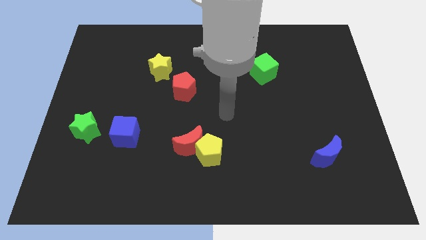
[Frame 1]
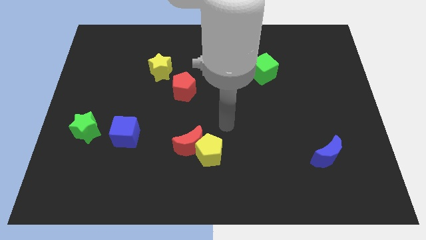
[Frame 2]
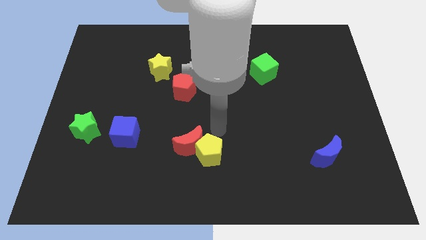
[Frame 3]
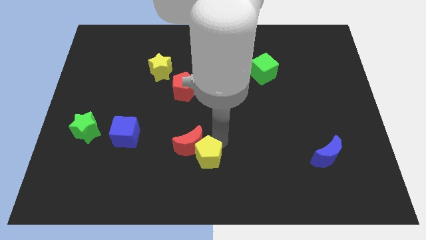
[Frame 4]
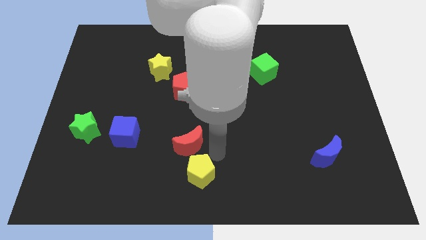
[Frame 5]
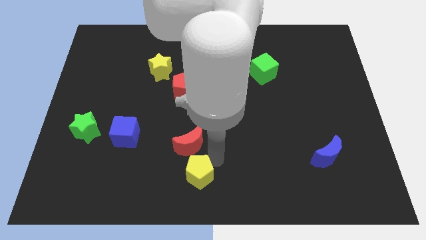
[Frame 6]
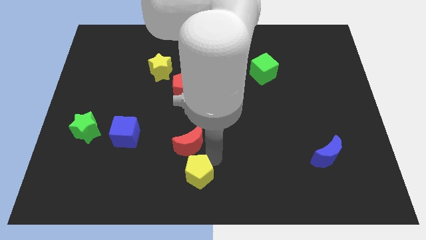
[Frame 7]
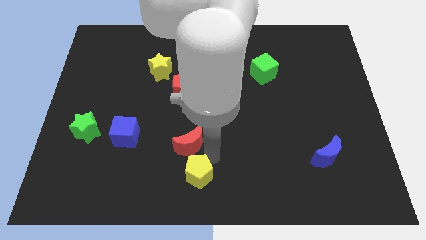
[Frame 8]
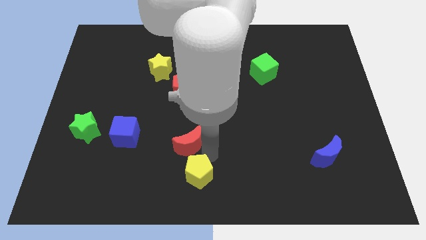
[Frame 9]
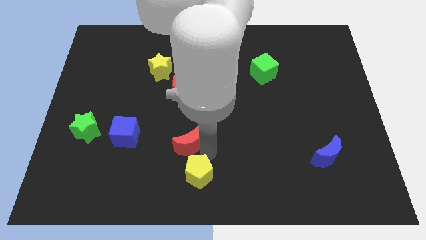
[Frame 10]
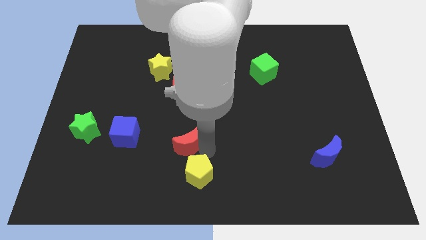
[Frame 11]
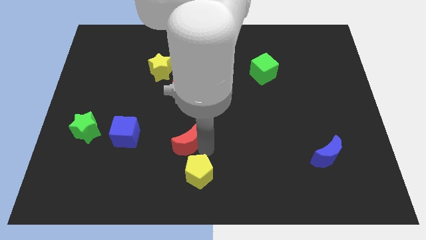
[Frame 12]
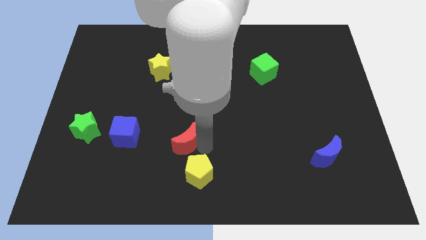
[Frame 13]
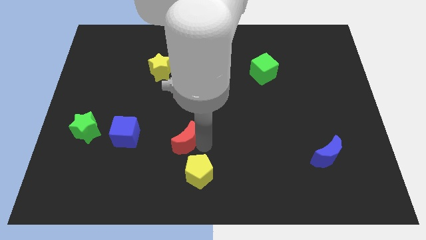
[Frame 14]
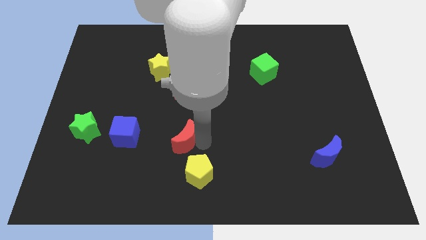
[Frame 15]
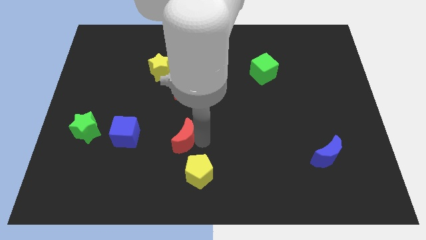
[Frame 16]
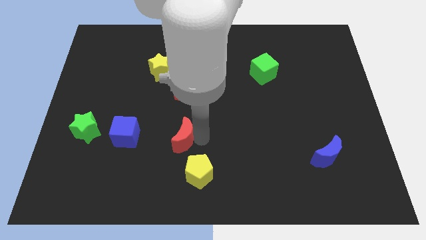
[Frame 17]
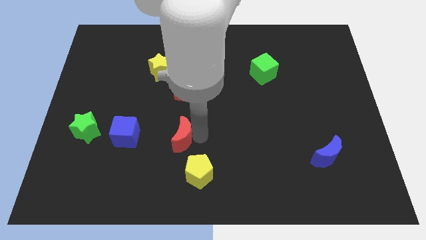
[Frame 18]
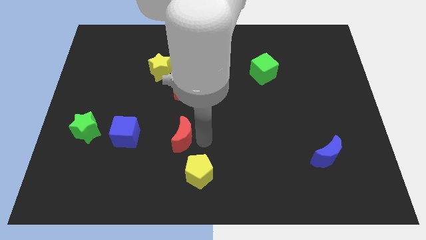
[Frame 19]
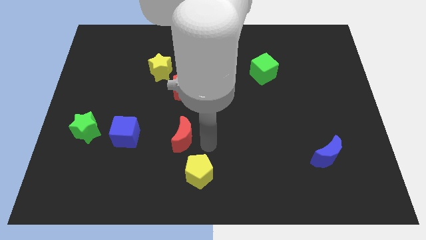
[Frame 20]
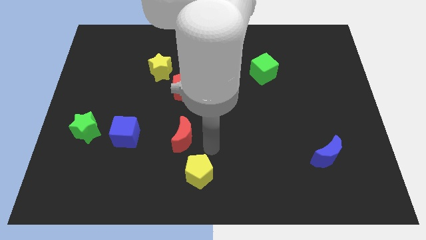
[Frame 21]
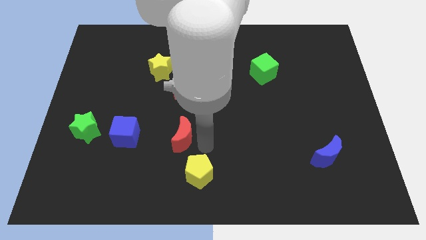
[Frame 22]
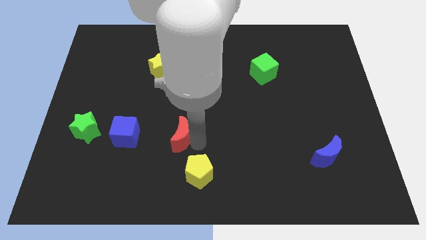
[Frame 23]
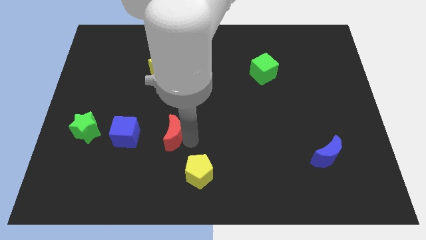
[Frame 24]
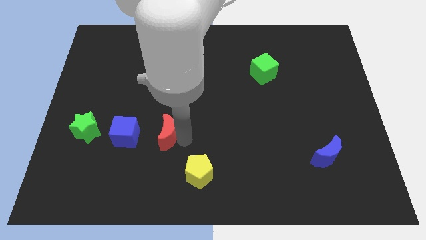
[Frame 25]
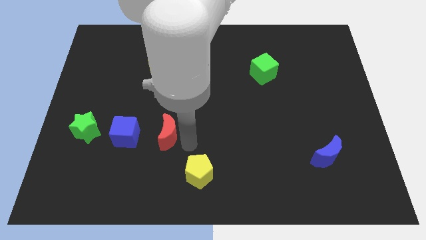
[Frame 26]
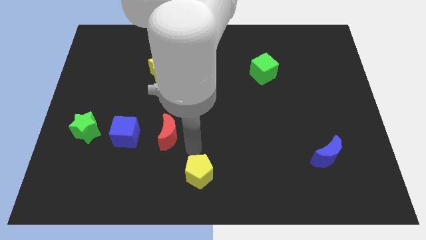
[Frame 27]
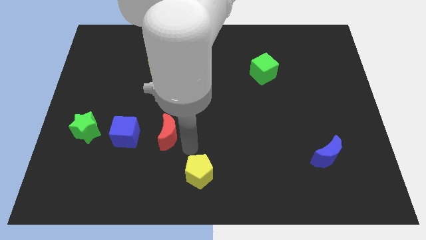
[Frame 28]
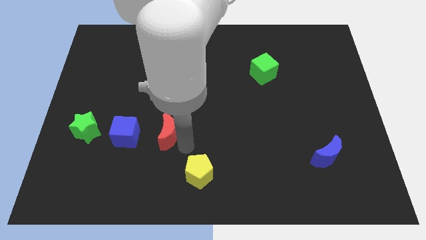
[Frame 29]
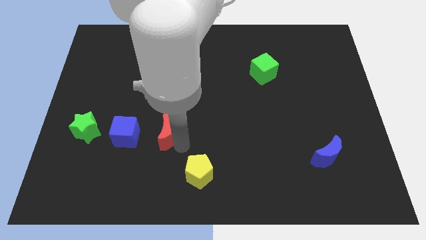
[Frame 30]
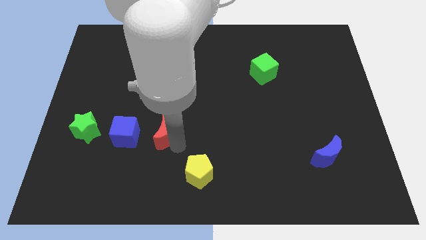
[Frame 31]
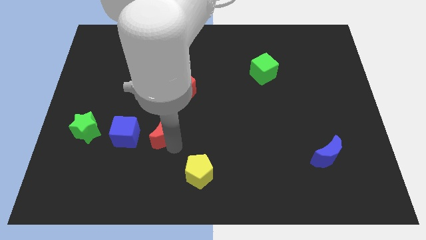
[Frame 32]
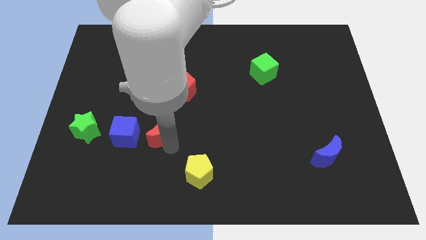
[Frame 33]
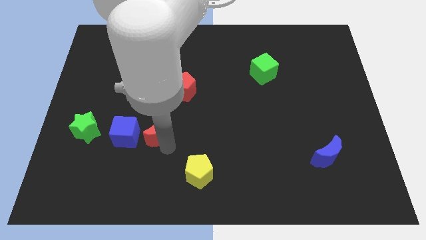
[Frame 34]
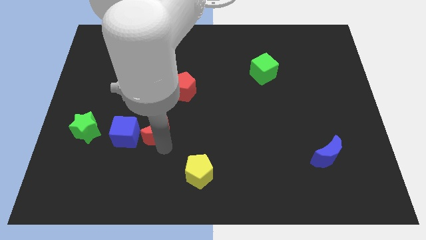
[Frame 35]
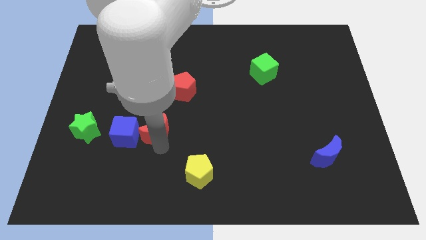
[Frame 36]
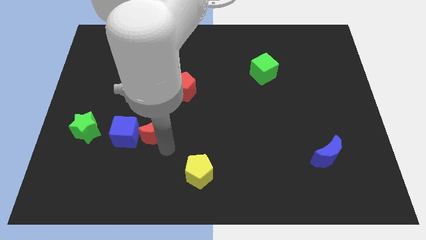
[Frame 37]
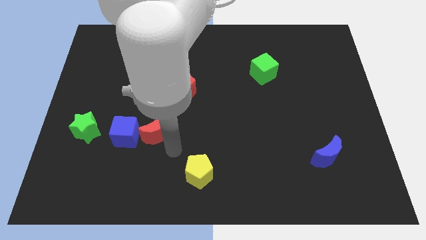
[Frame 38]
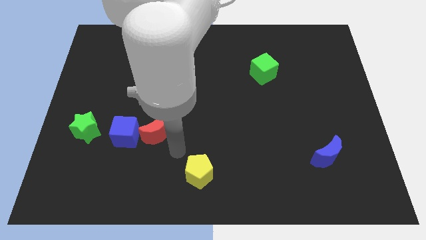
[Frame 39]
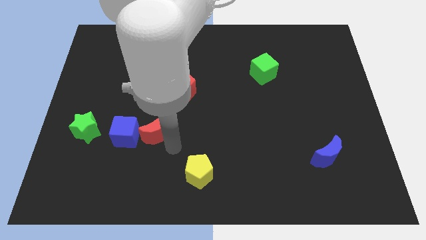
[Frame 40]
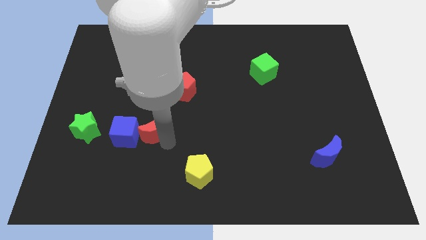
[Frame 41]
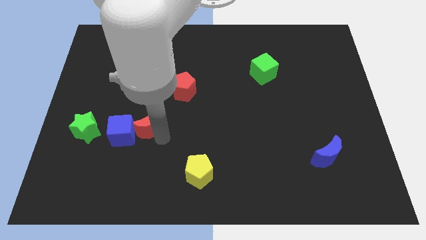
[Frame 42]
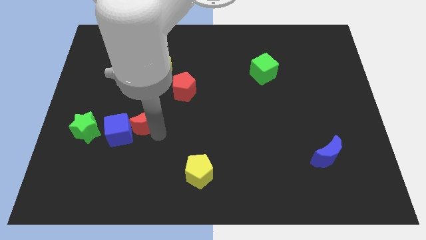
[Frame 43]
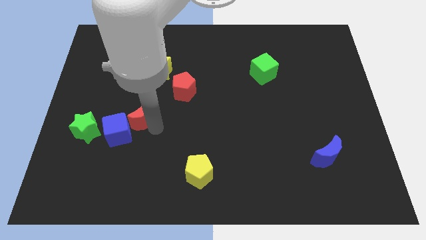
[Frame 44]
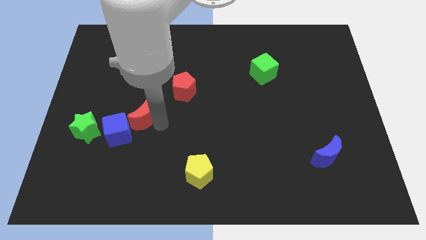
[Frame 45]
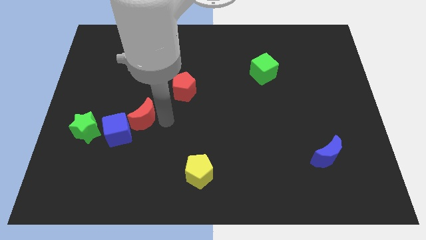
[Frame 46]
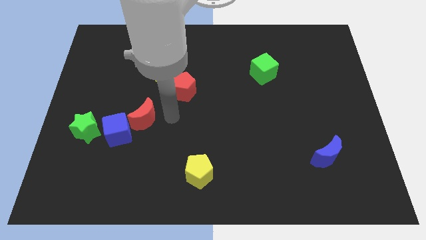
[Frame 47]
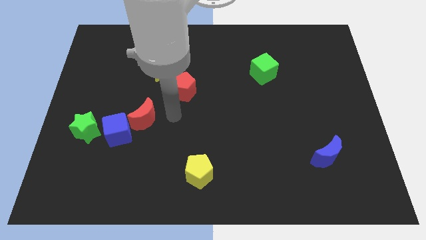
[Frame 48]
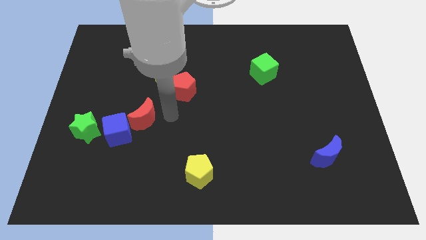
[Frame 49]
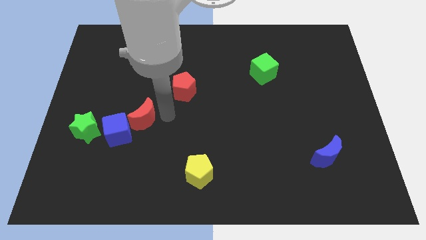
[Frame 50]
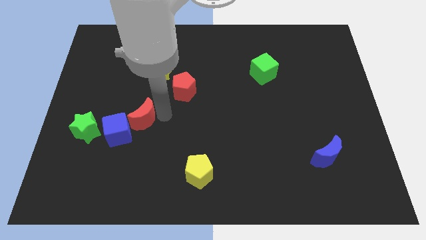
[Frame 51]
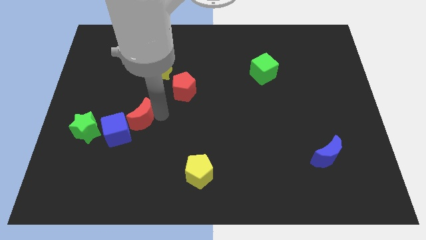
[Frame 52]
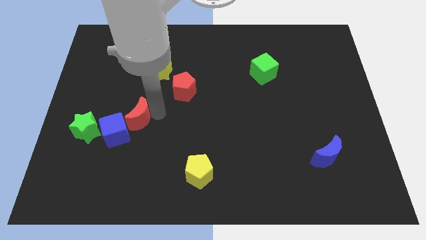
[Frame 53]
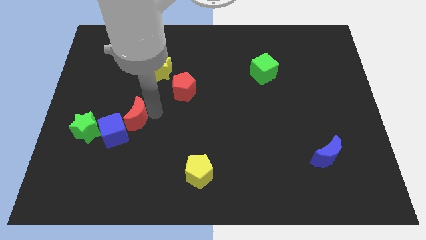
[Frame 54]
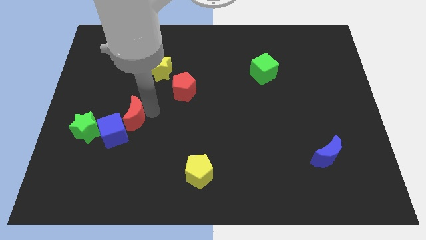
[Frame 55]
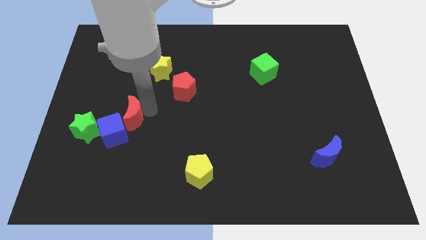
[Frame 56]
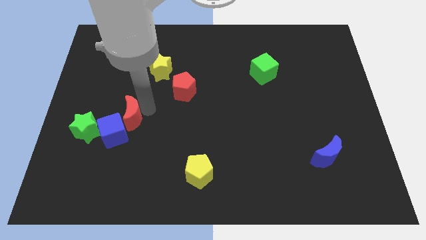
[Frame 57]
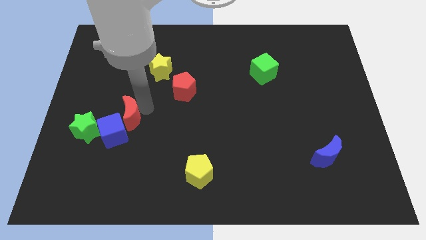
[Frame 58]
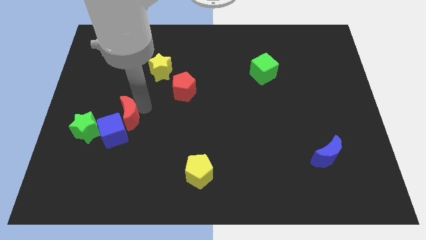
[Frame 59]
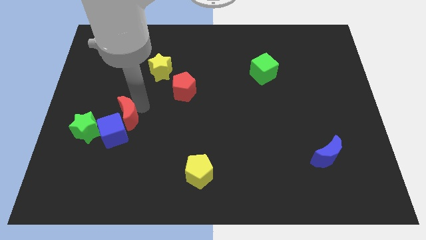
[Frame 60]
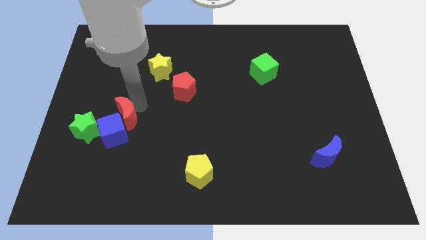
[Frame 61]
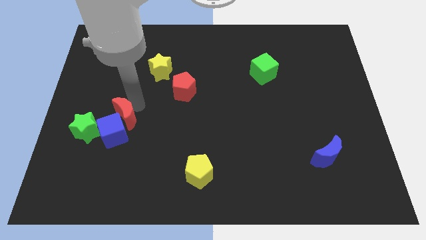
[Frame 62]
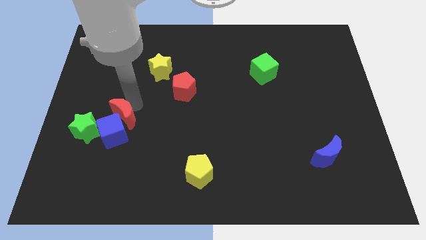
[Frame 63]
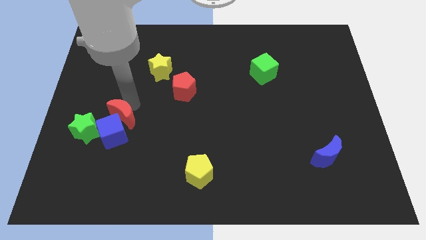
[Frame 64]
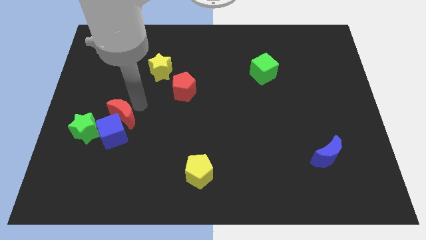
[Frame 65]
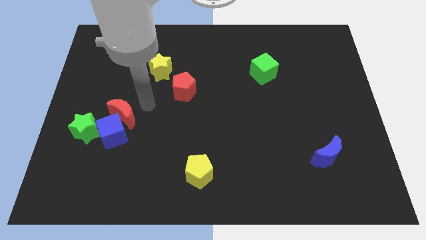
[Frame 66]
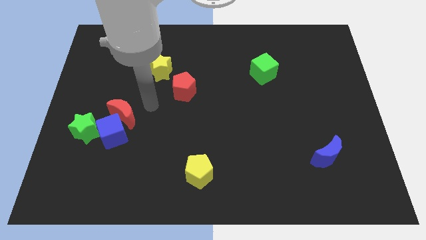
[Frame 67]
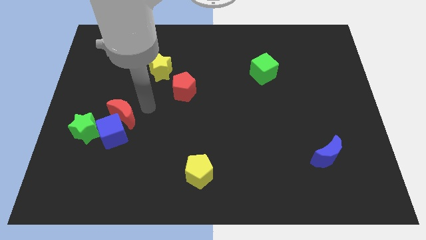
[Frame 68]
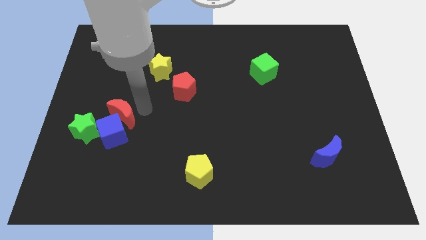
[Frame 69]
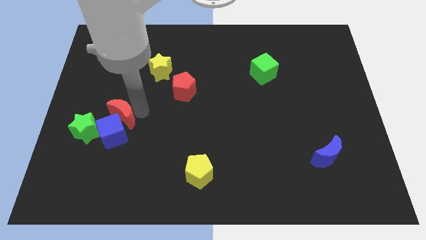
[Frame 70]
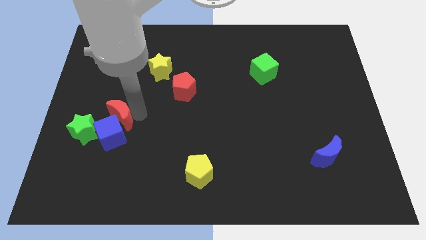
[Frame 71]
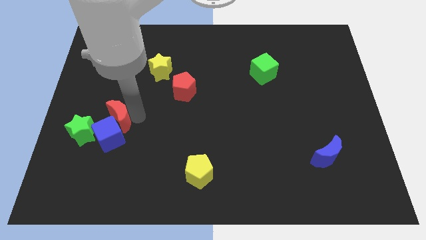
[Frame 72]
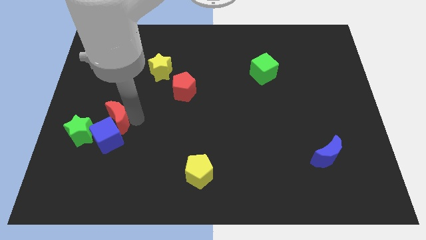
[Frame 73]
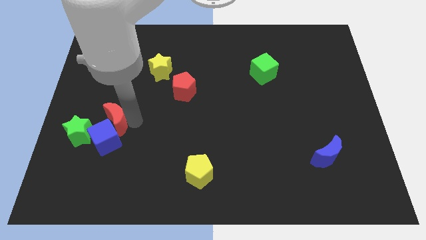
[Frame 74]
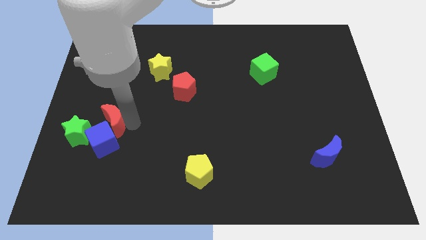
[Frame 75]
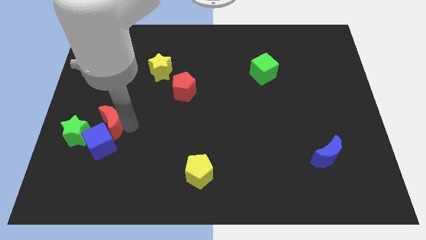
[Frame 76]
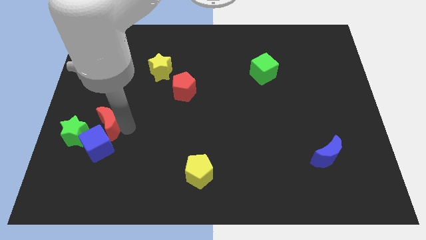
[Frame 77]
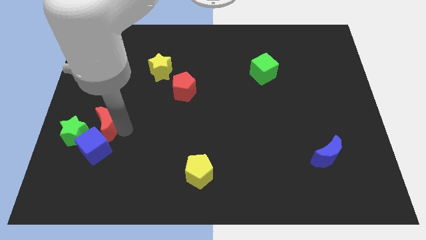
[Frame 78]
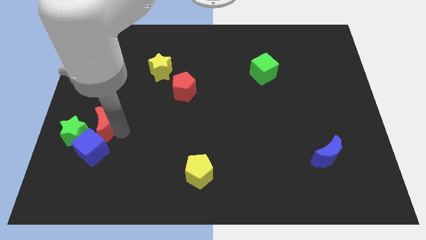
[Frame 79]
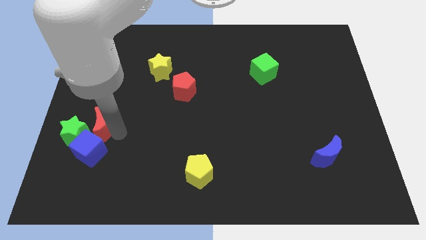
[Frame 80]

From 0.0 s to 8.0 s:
put the red moon to the green star
